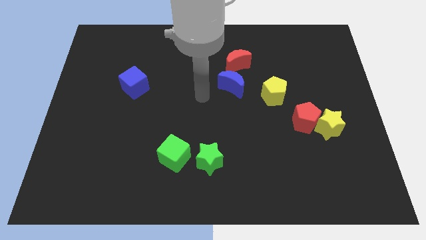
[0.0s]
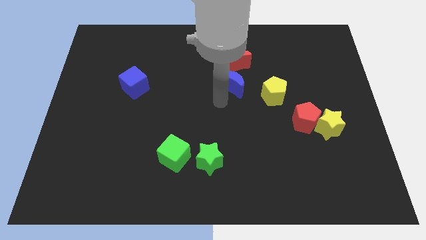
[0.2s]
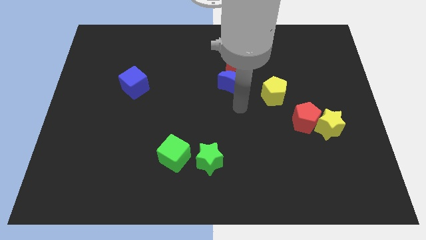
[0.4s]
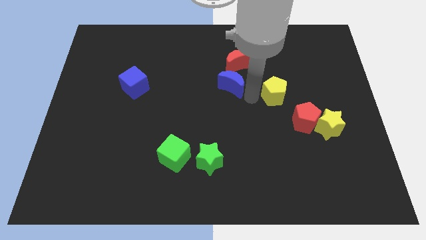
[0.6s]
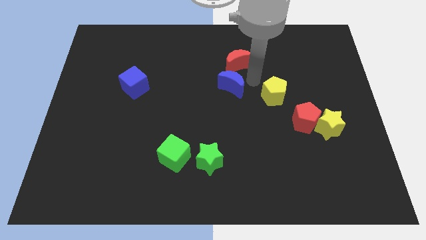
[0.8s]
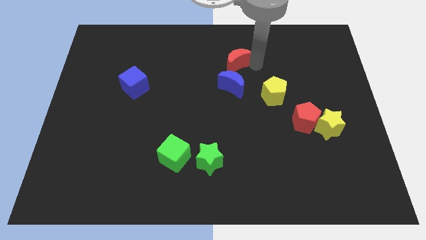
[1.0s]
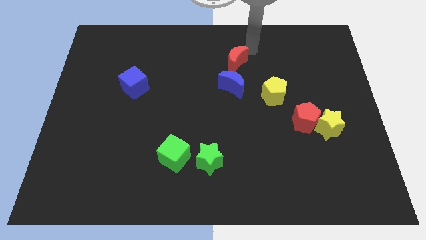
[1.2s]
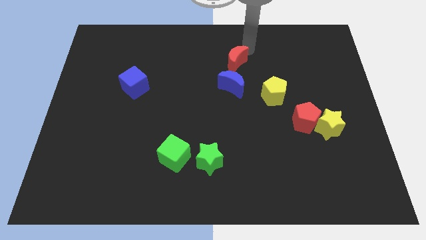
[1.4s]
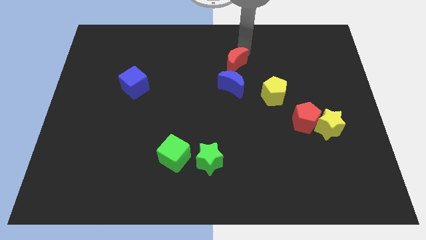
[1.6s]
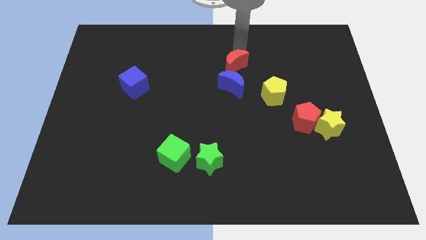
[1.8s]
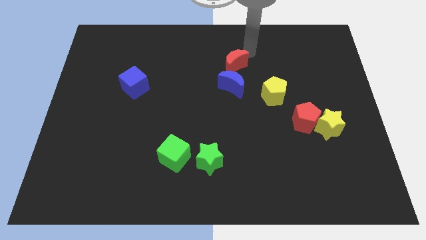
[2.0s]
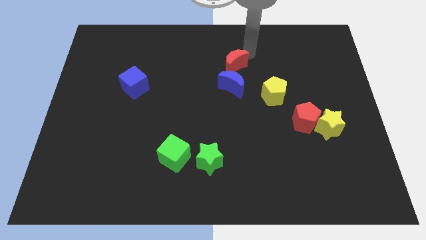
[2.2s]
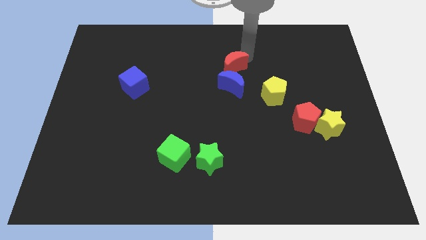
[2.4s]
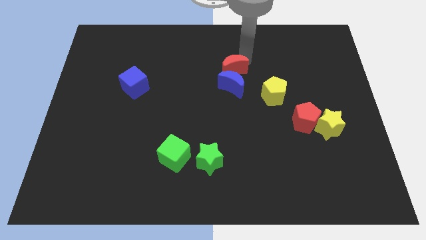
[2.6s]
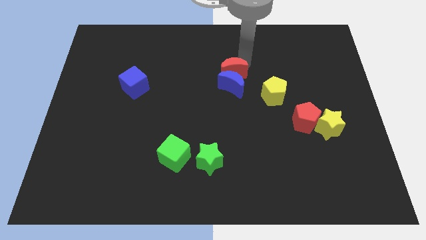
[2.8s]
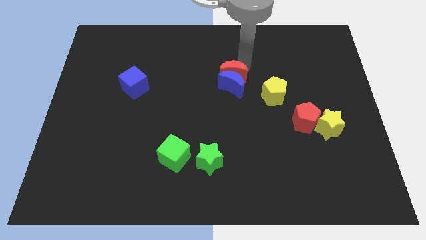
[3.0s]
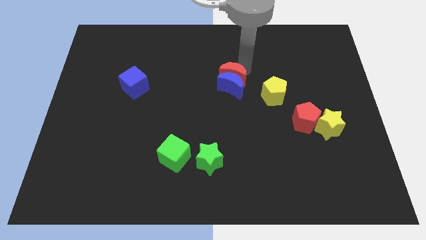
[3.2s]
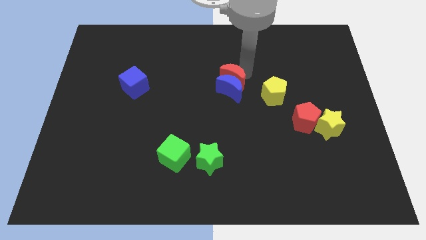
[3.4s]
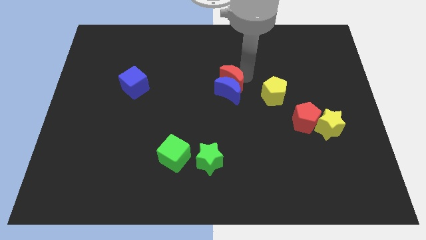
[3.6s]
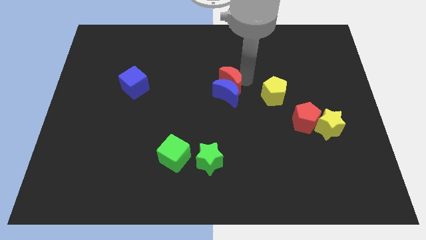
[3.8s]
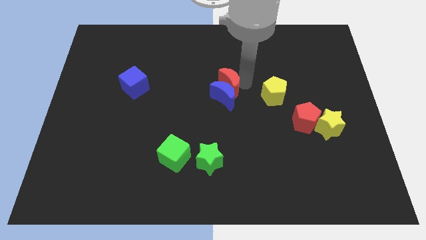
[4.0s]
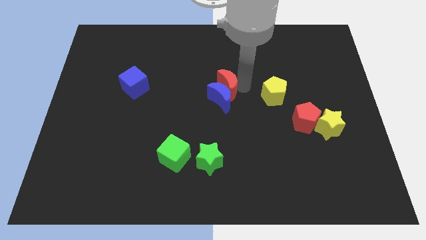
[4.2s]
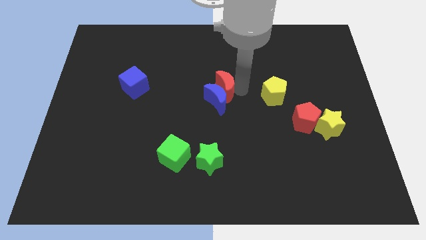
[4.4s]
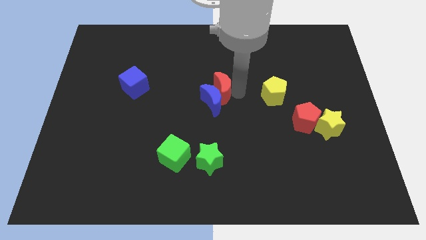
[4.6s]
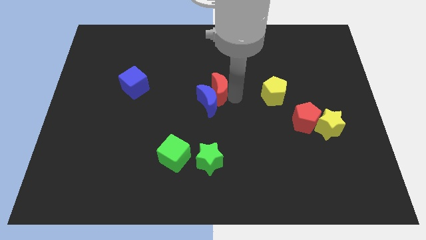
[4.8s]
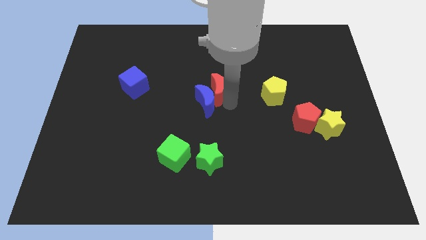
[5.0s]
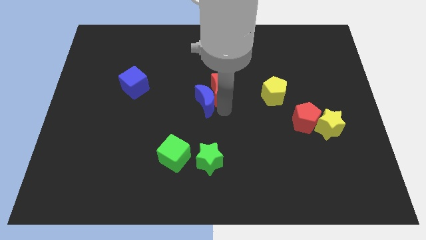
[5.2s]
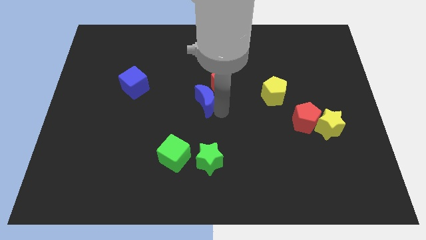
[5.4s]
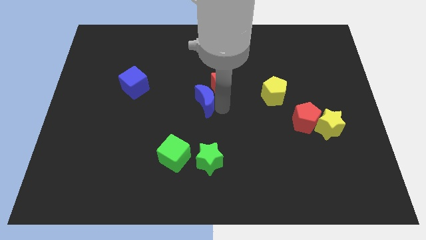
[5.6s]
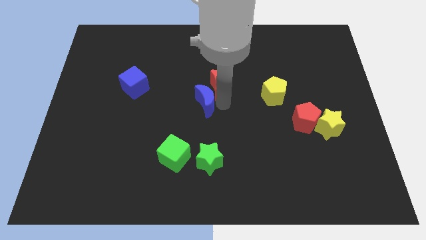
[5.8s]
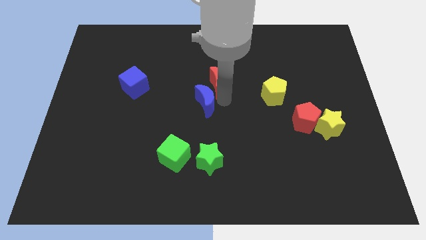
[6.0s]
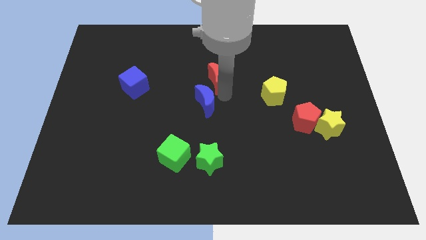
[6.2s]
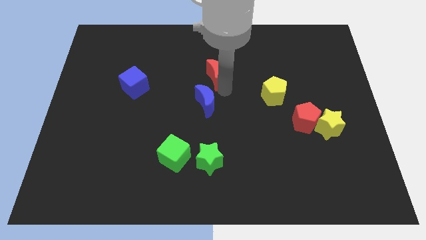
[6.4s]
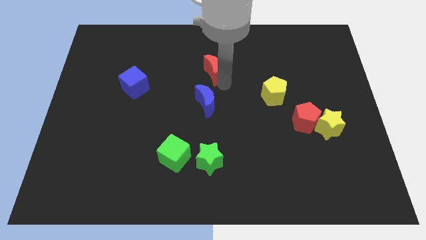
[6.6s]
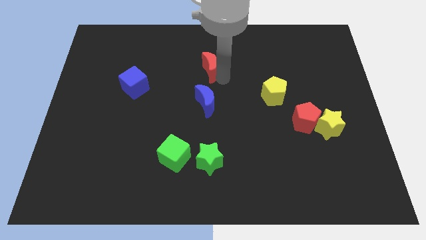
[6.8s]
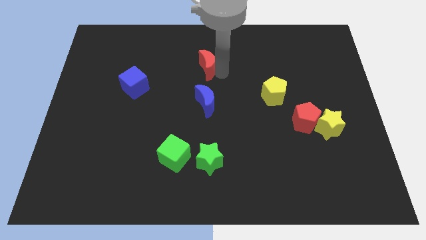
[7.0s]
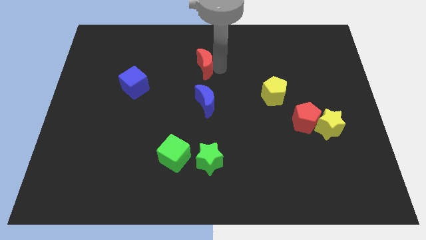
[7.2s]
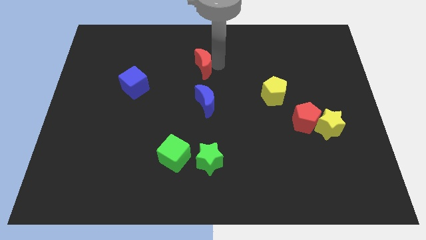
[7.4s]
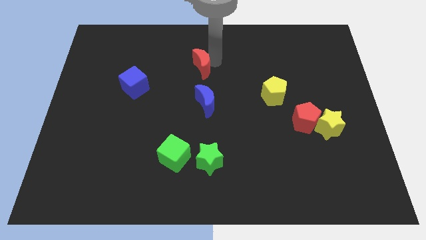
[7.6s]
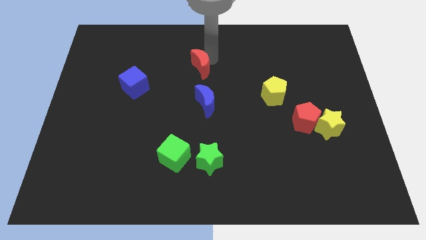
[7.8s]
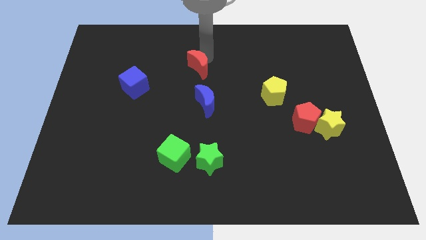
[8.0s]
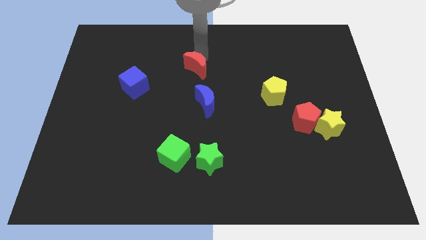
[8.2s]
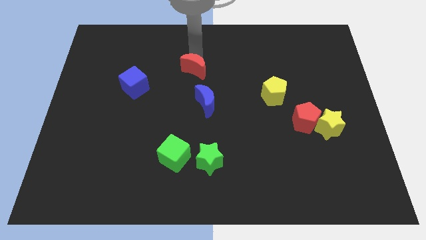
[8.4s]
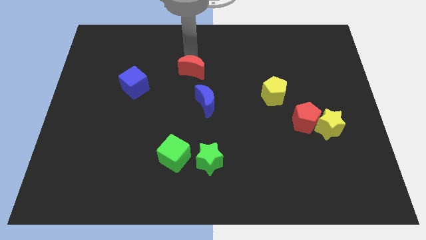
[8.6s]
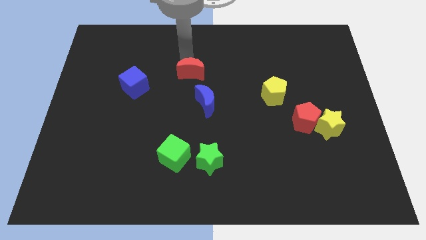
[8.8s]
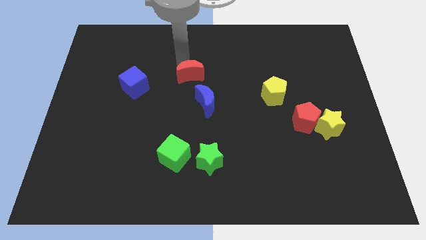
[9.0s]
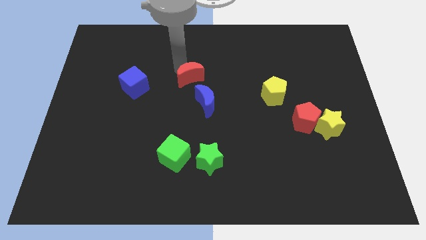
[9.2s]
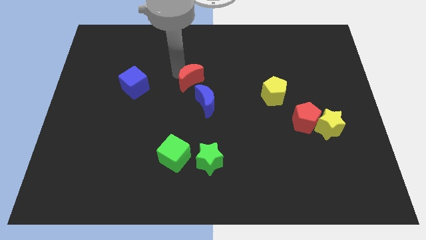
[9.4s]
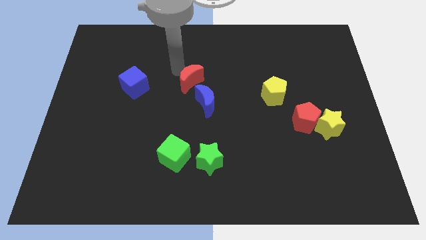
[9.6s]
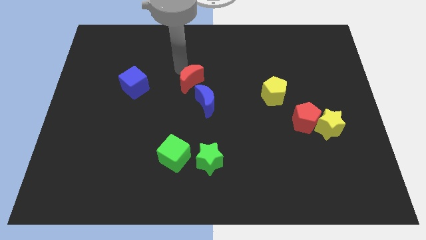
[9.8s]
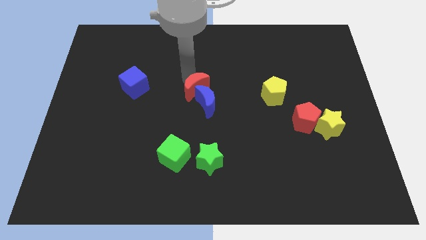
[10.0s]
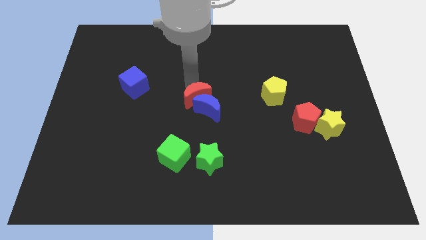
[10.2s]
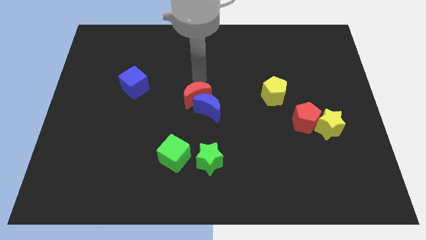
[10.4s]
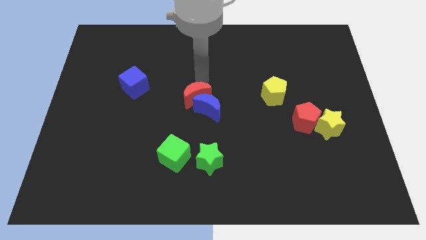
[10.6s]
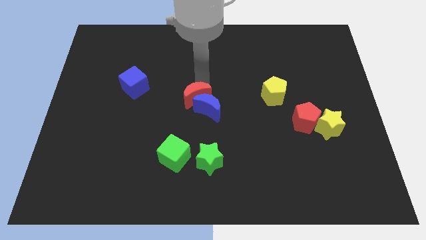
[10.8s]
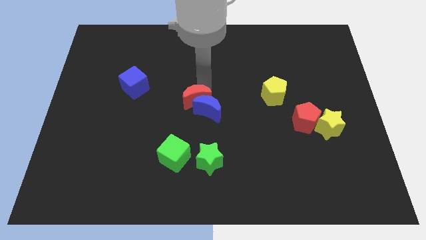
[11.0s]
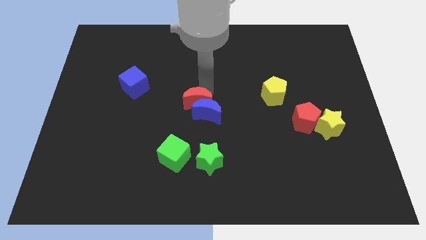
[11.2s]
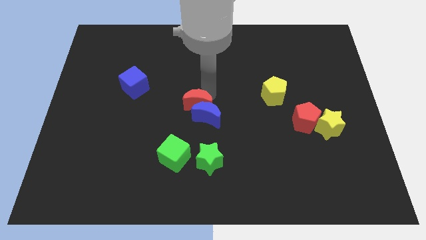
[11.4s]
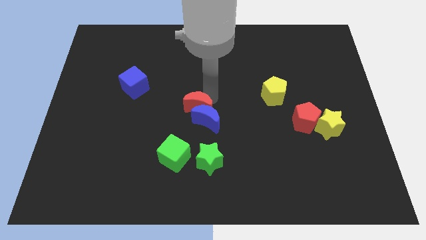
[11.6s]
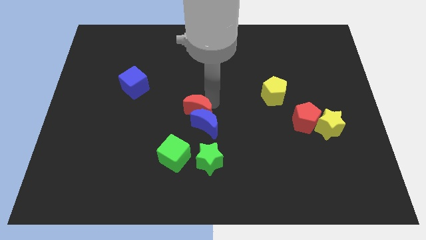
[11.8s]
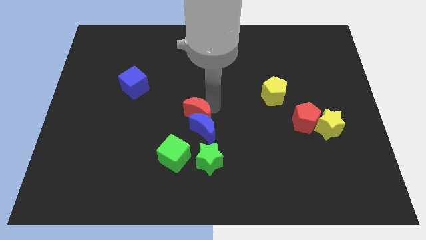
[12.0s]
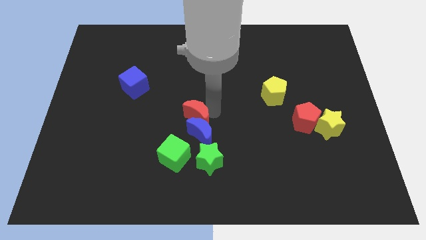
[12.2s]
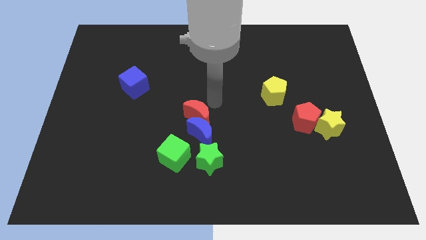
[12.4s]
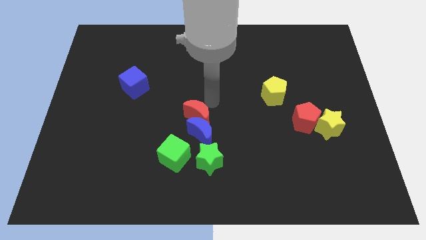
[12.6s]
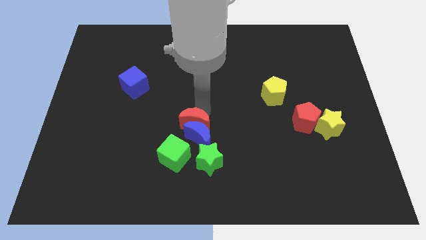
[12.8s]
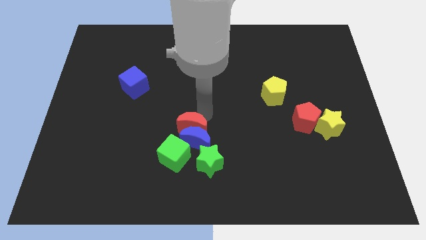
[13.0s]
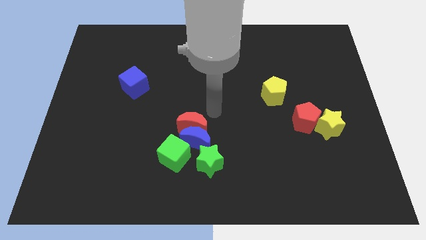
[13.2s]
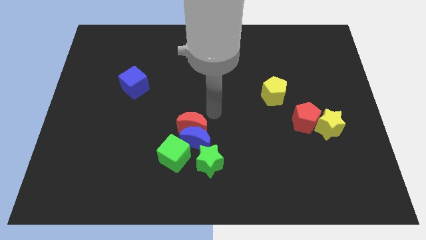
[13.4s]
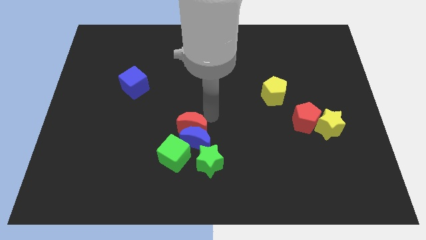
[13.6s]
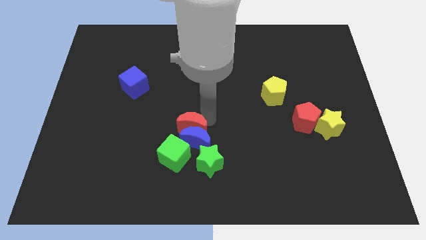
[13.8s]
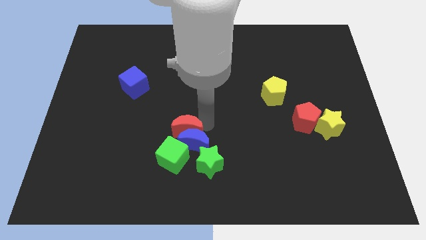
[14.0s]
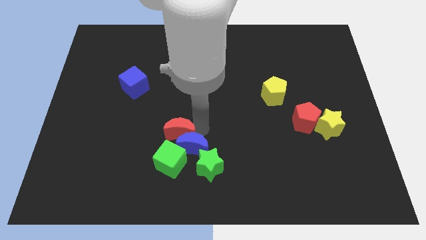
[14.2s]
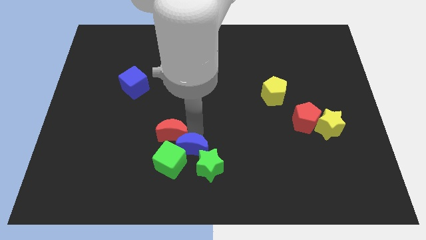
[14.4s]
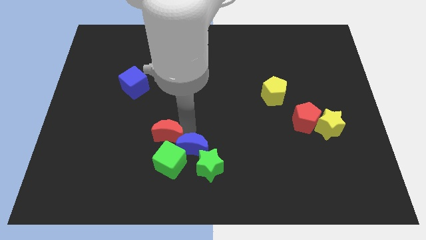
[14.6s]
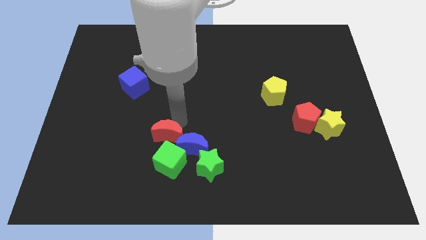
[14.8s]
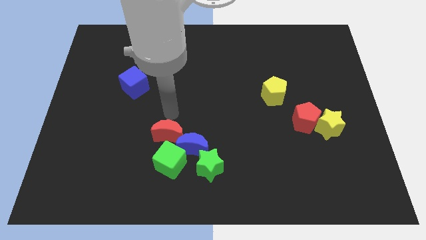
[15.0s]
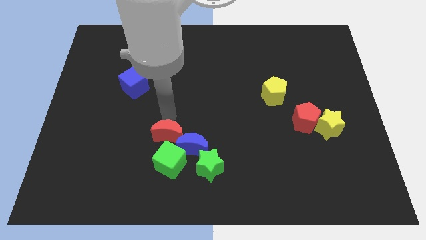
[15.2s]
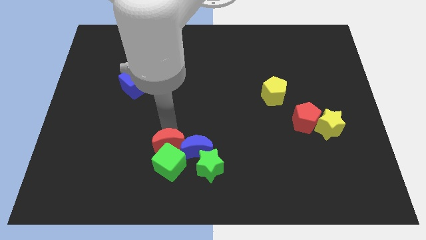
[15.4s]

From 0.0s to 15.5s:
push the red moon towards the green cube
